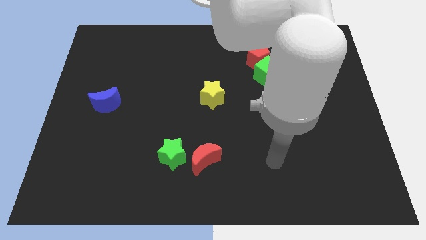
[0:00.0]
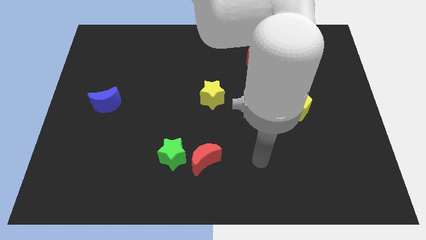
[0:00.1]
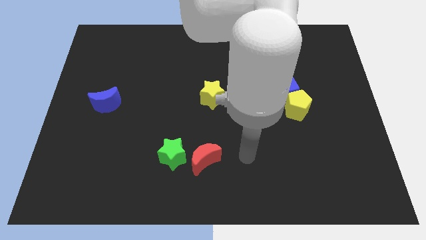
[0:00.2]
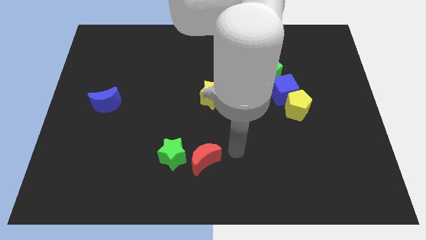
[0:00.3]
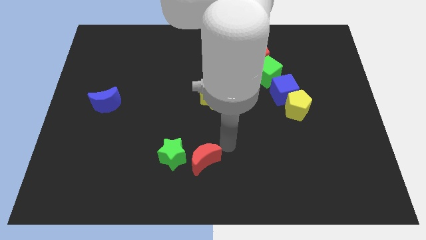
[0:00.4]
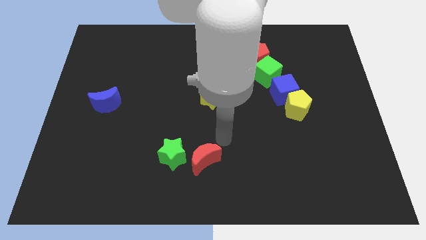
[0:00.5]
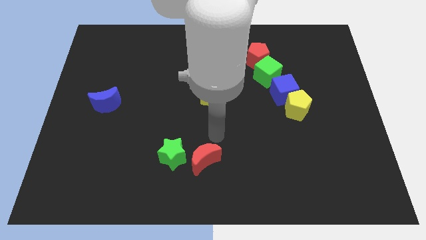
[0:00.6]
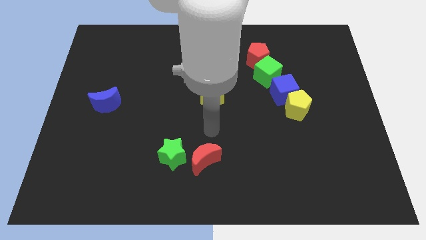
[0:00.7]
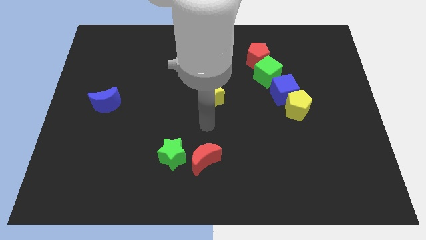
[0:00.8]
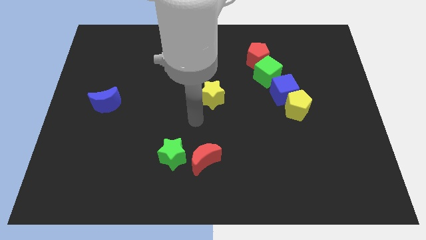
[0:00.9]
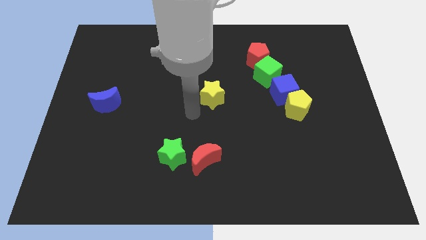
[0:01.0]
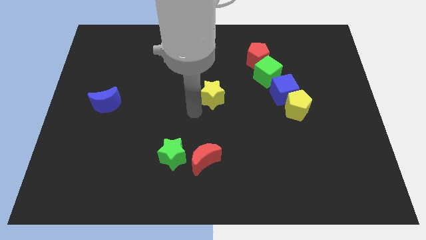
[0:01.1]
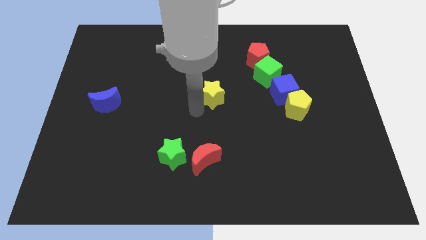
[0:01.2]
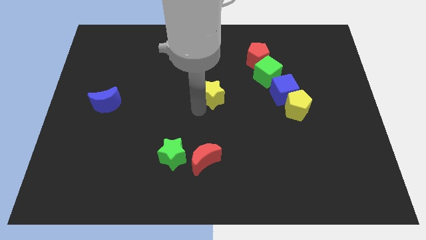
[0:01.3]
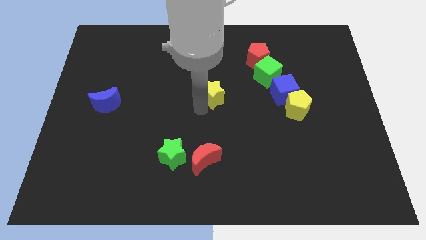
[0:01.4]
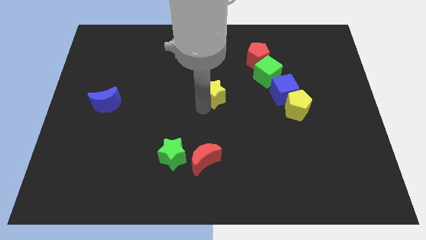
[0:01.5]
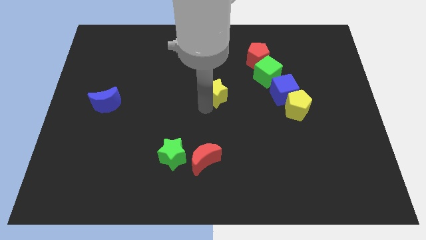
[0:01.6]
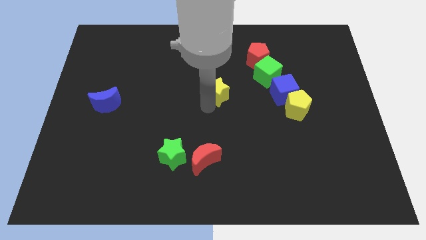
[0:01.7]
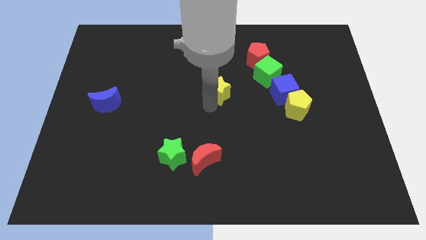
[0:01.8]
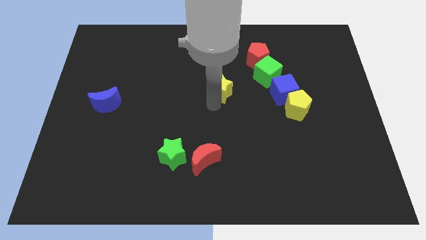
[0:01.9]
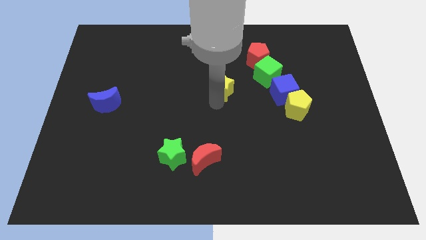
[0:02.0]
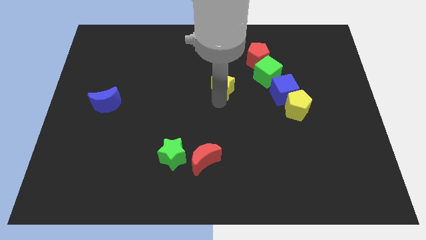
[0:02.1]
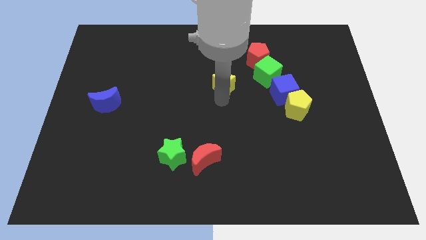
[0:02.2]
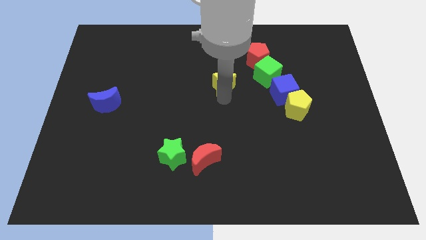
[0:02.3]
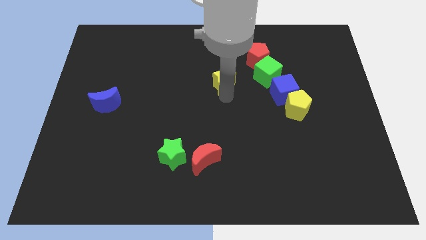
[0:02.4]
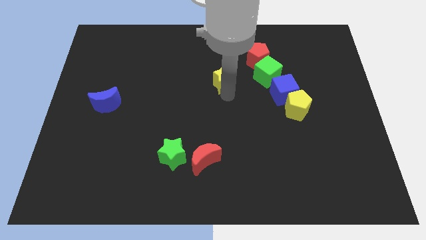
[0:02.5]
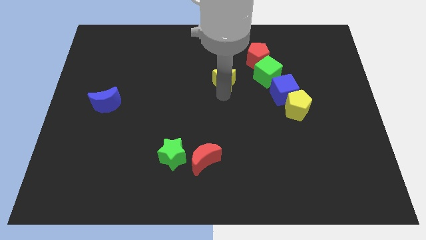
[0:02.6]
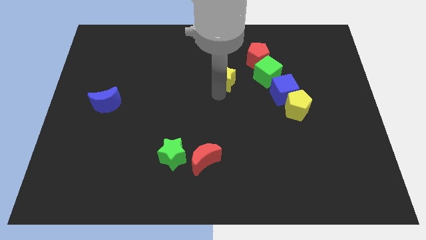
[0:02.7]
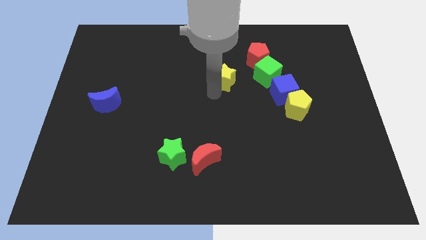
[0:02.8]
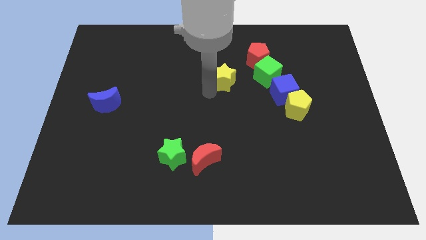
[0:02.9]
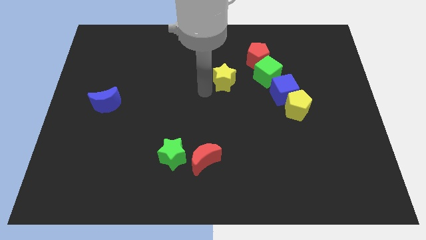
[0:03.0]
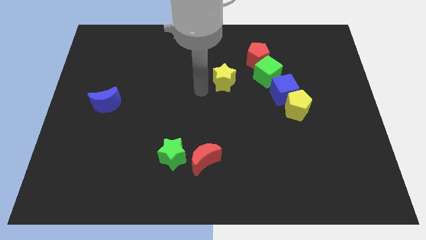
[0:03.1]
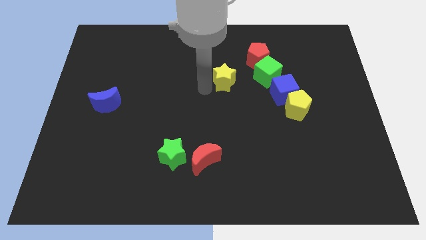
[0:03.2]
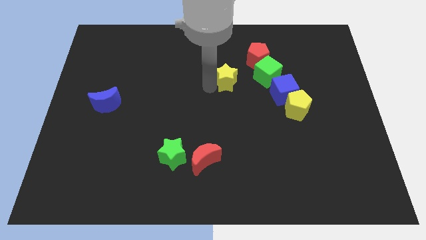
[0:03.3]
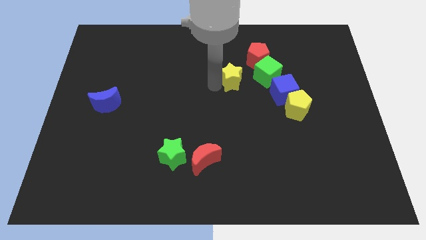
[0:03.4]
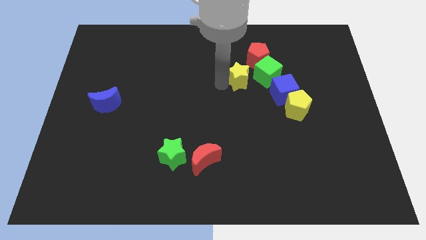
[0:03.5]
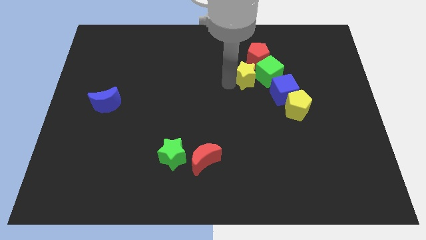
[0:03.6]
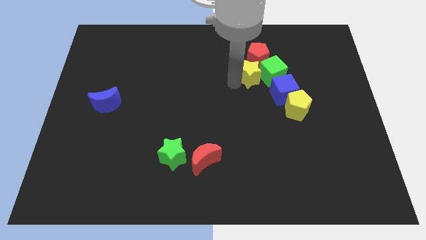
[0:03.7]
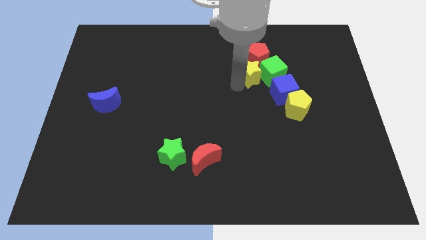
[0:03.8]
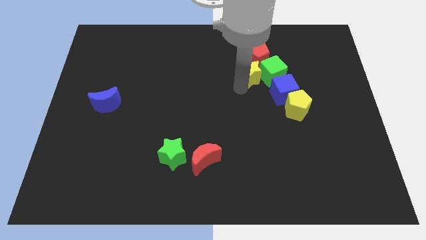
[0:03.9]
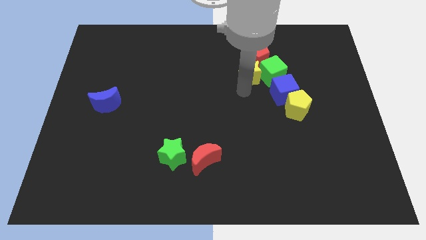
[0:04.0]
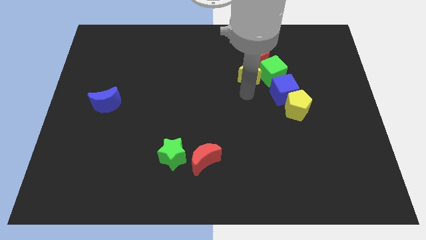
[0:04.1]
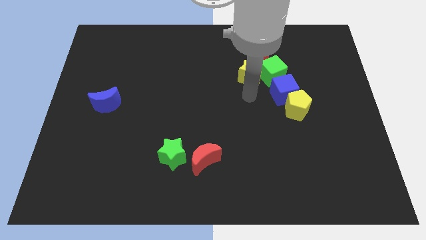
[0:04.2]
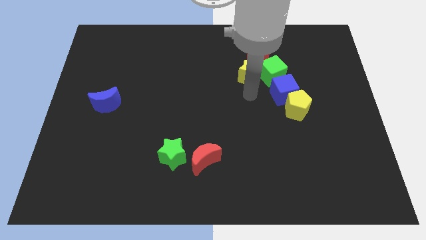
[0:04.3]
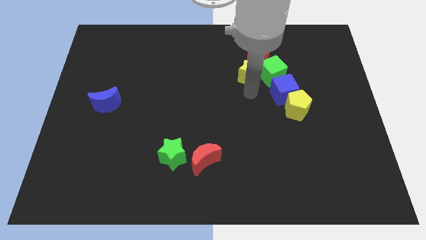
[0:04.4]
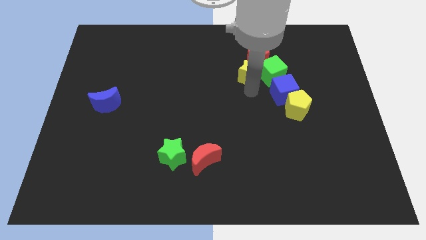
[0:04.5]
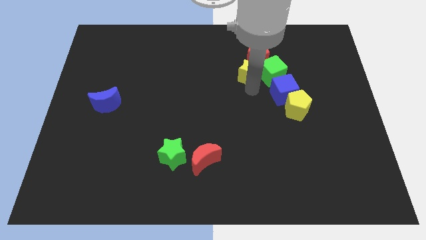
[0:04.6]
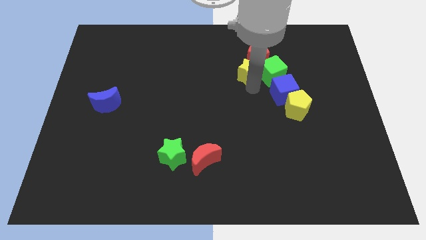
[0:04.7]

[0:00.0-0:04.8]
move the yellow star to the red pentagon

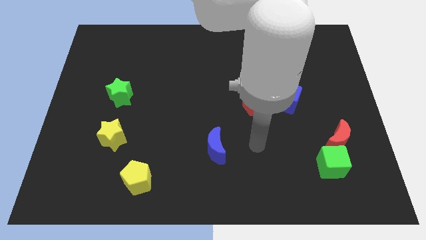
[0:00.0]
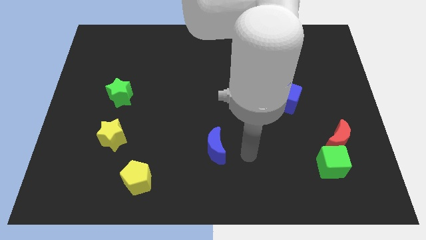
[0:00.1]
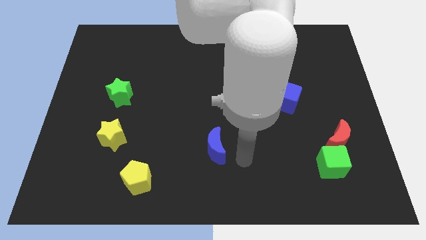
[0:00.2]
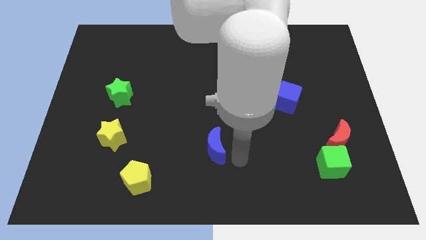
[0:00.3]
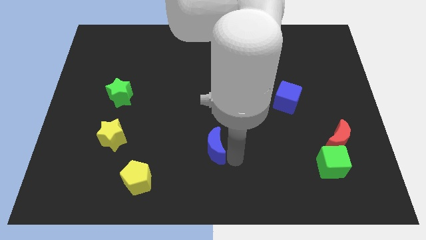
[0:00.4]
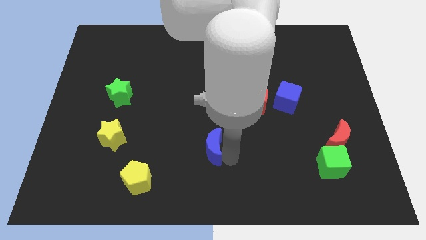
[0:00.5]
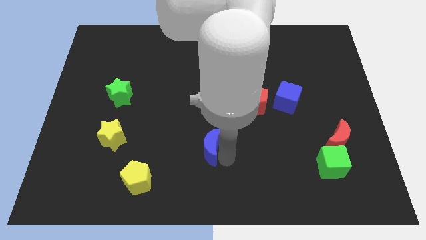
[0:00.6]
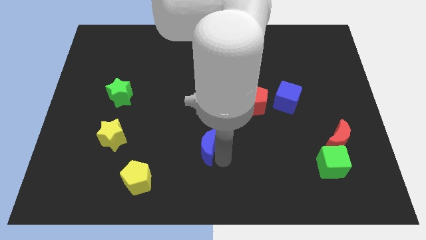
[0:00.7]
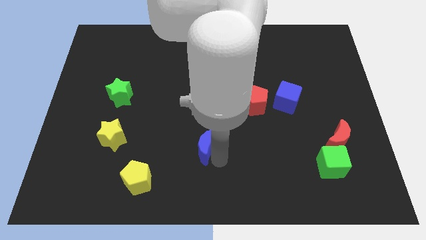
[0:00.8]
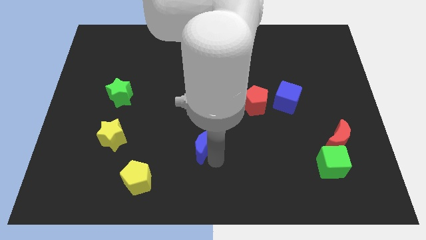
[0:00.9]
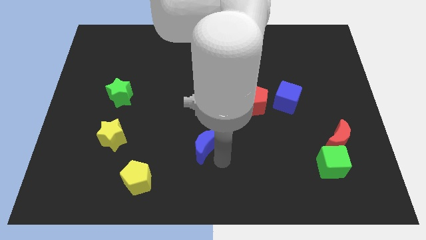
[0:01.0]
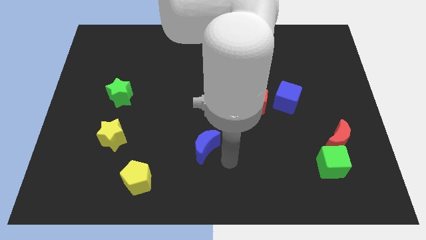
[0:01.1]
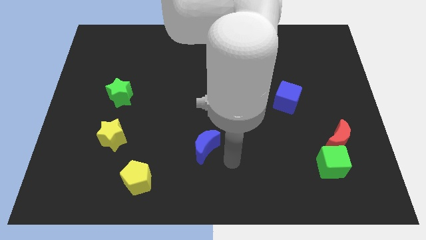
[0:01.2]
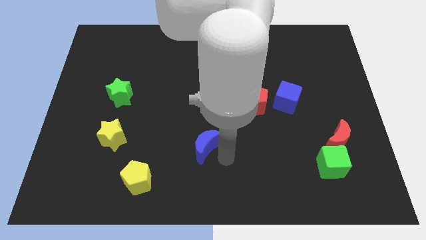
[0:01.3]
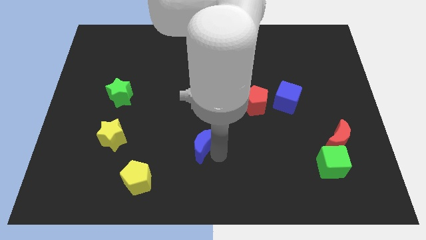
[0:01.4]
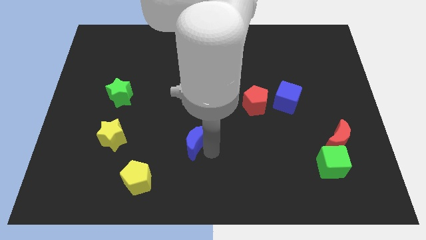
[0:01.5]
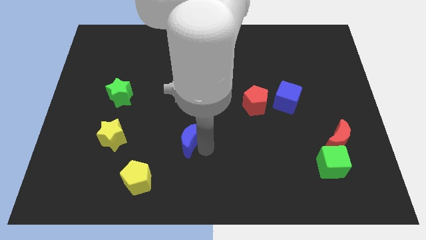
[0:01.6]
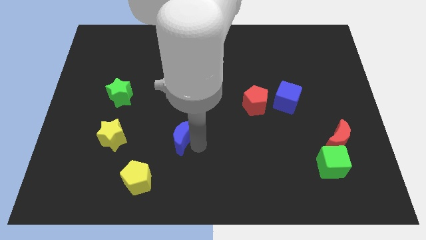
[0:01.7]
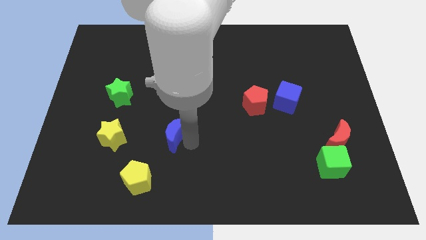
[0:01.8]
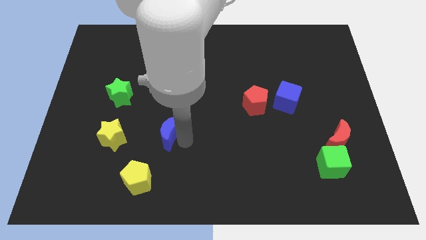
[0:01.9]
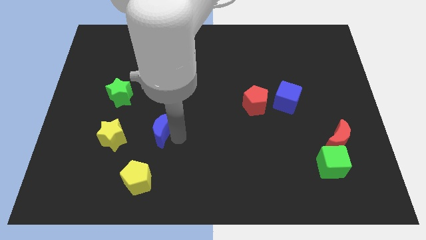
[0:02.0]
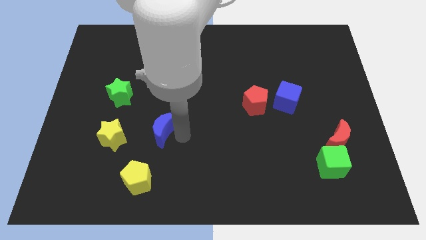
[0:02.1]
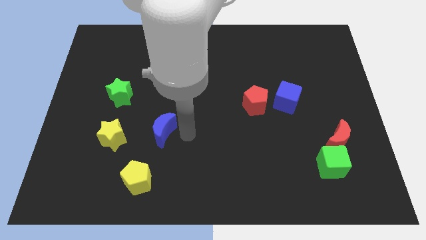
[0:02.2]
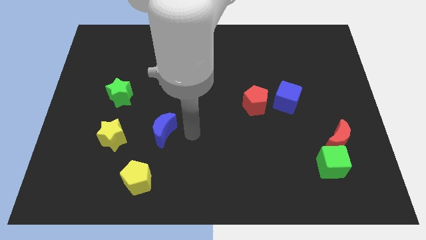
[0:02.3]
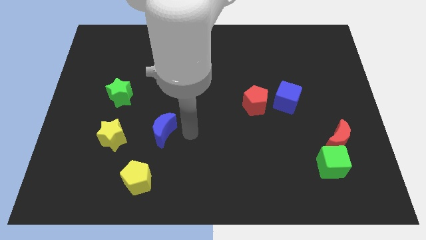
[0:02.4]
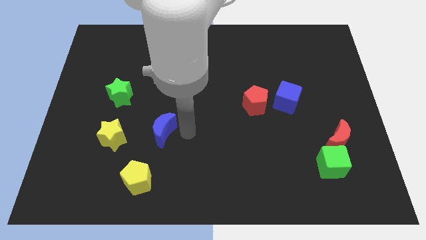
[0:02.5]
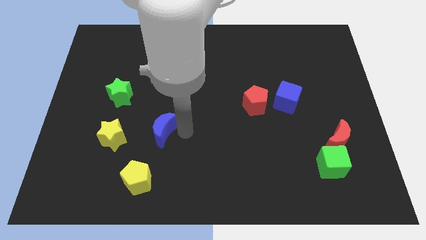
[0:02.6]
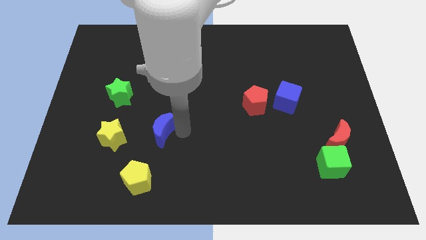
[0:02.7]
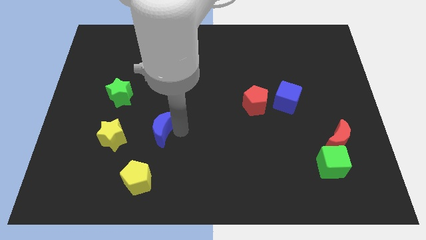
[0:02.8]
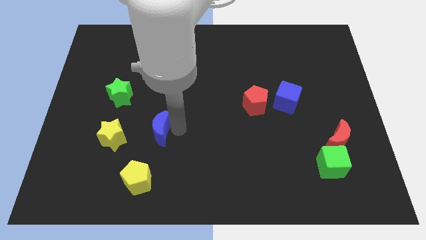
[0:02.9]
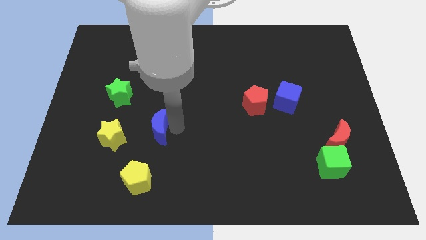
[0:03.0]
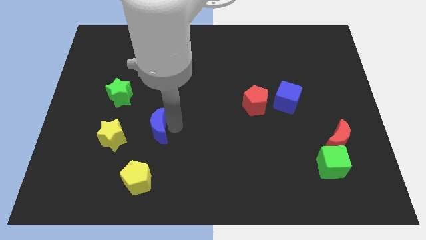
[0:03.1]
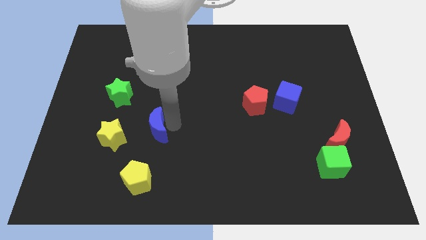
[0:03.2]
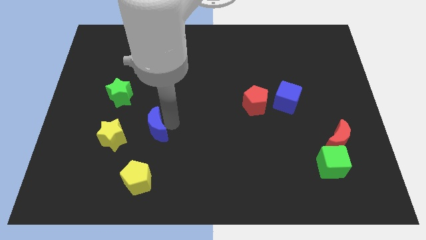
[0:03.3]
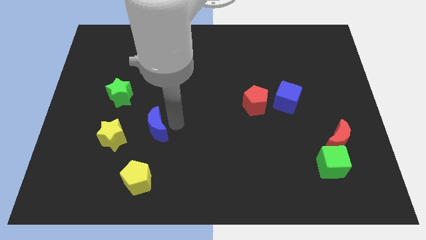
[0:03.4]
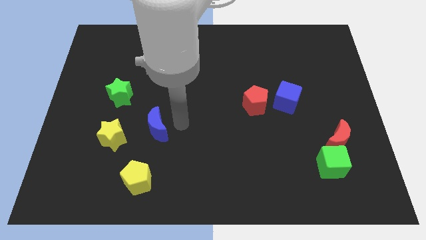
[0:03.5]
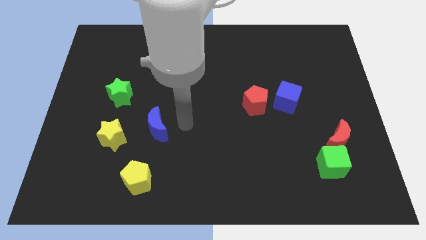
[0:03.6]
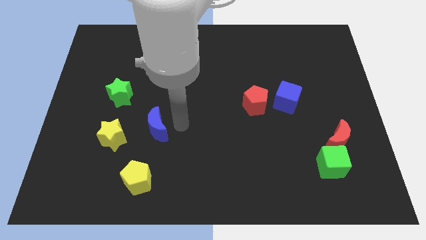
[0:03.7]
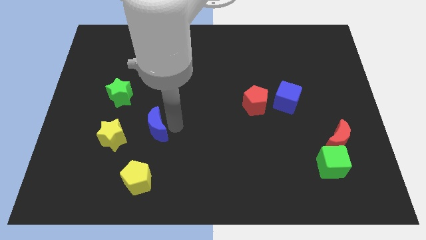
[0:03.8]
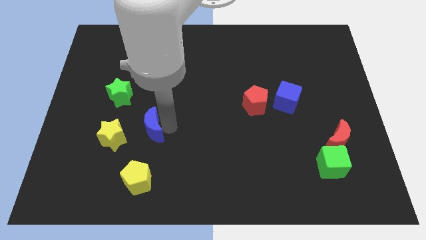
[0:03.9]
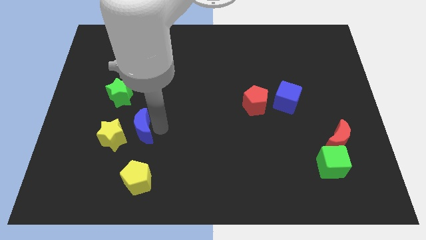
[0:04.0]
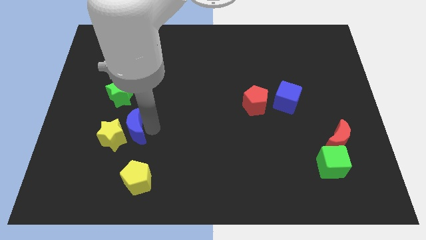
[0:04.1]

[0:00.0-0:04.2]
move the blue moon to the yellow star
